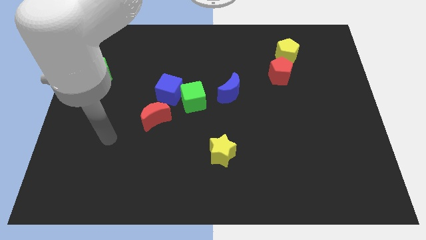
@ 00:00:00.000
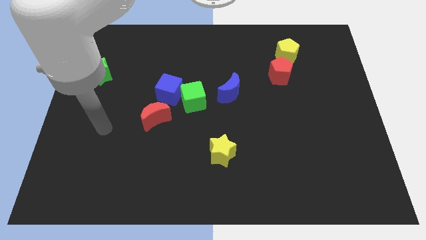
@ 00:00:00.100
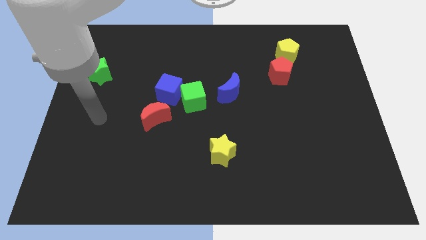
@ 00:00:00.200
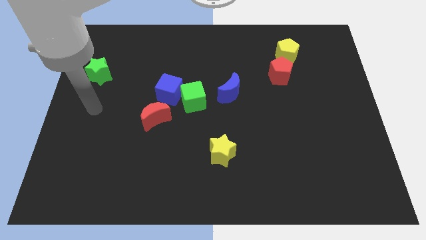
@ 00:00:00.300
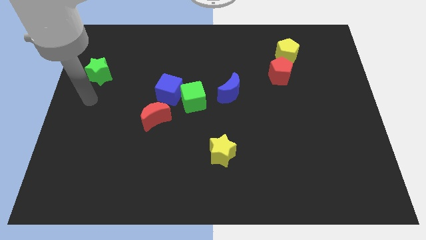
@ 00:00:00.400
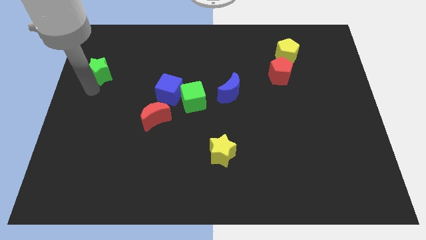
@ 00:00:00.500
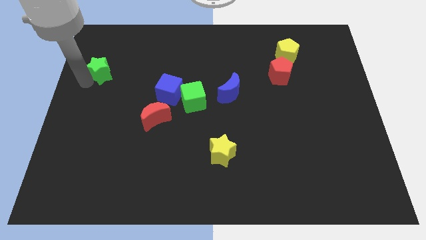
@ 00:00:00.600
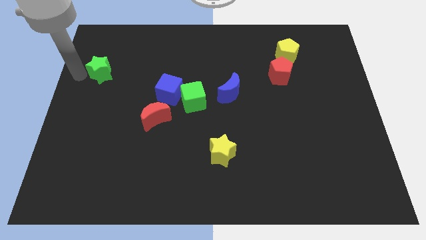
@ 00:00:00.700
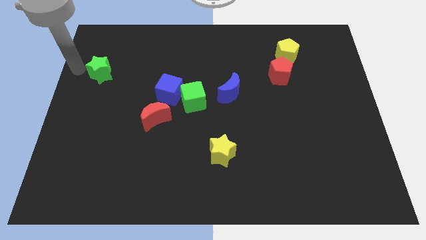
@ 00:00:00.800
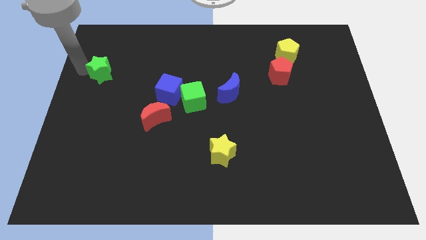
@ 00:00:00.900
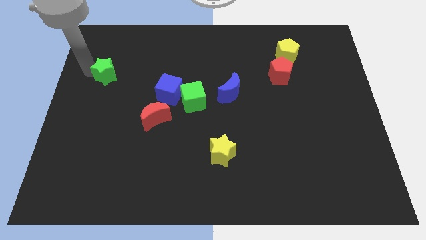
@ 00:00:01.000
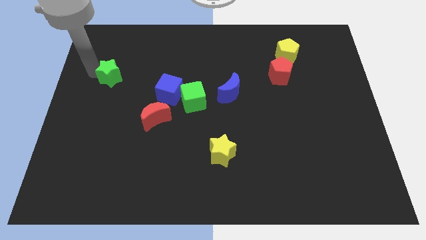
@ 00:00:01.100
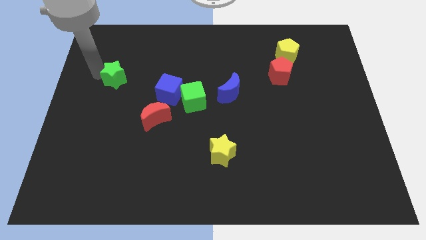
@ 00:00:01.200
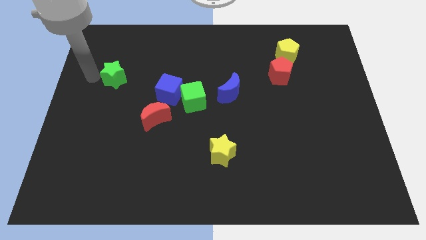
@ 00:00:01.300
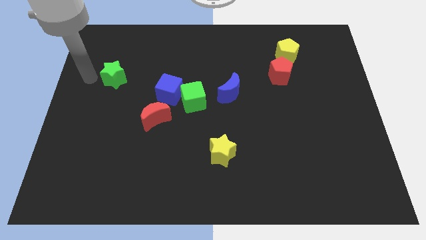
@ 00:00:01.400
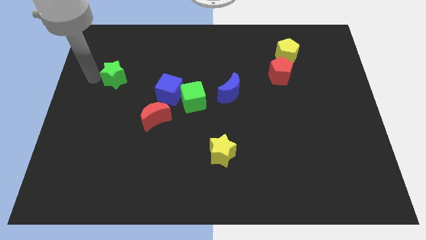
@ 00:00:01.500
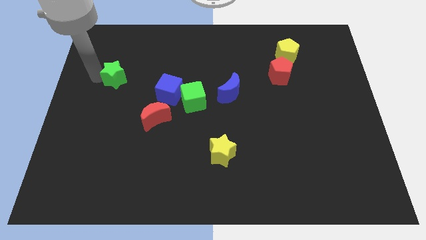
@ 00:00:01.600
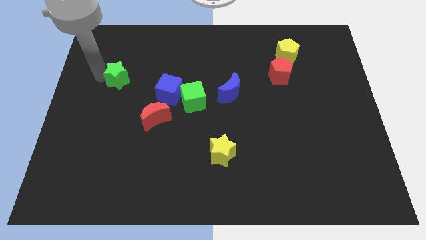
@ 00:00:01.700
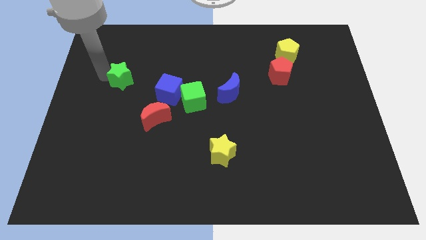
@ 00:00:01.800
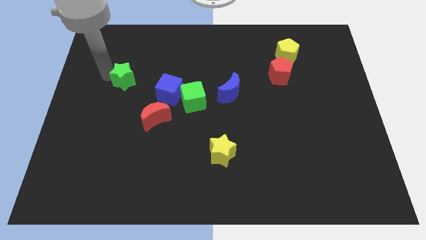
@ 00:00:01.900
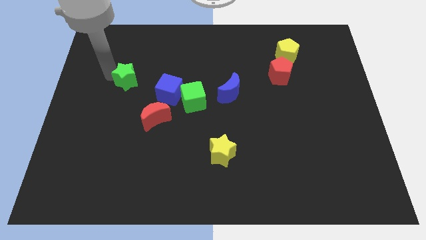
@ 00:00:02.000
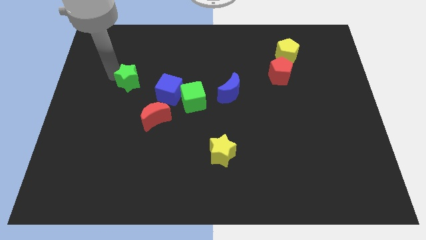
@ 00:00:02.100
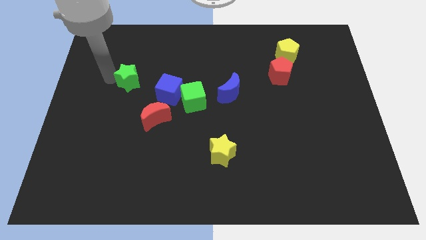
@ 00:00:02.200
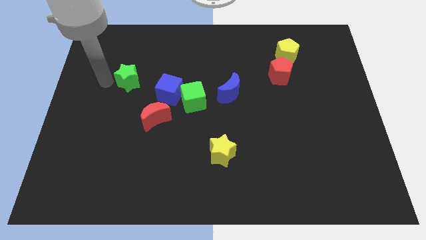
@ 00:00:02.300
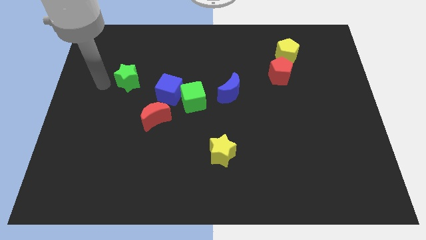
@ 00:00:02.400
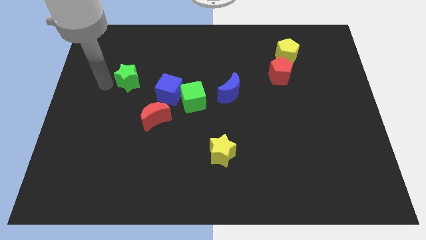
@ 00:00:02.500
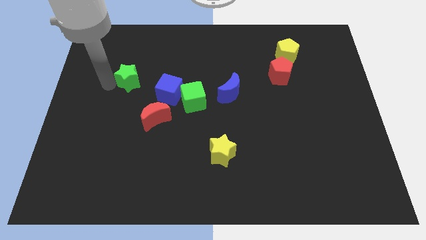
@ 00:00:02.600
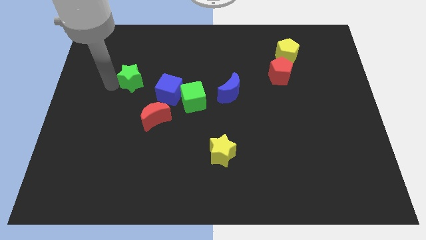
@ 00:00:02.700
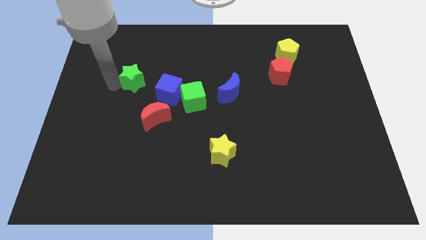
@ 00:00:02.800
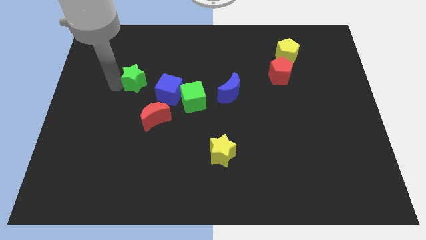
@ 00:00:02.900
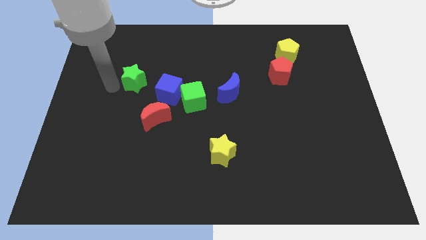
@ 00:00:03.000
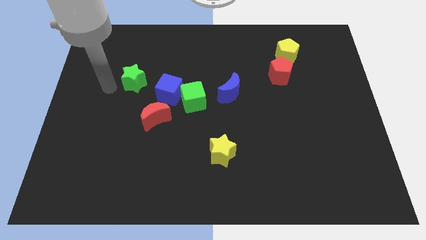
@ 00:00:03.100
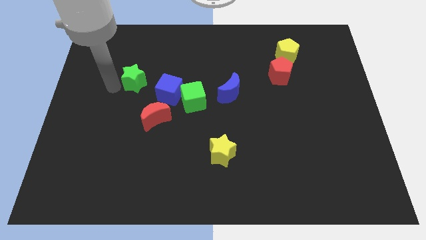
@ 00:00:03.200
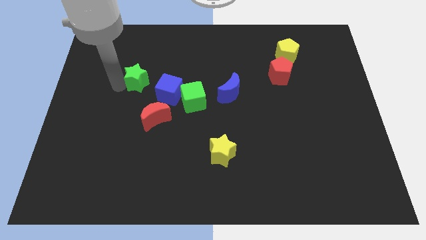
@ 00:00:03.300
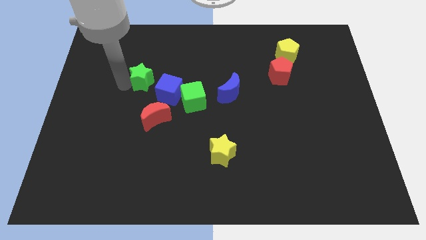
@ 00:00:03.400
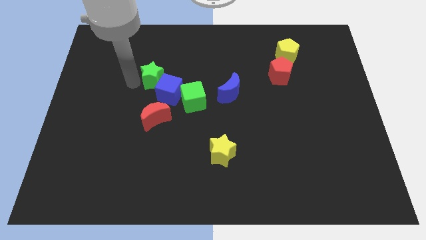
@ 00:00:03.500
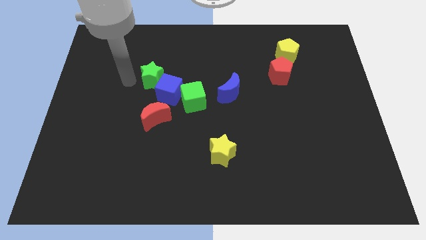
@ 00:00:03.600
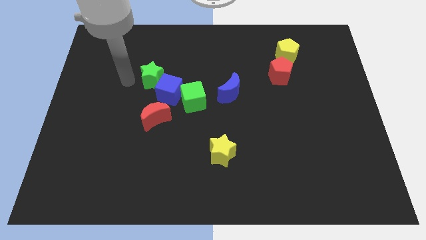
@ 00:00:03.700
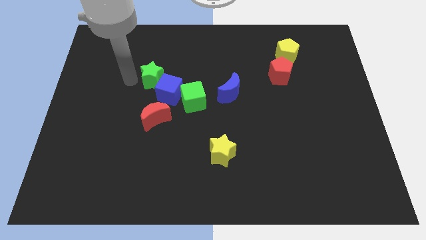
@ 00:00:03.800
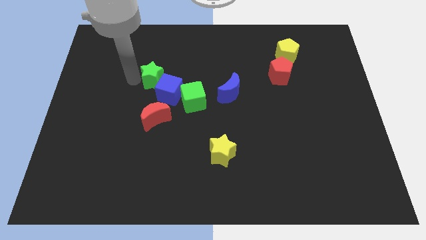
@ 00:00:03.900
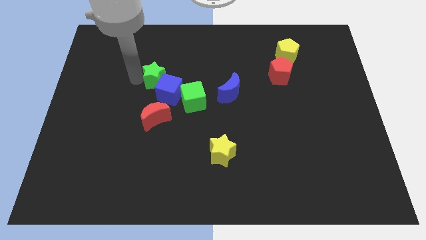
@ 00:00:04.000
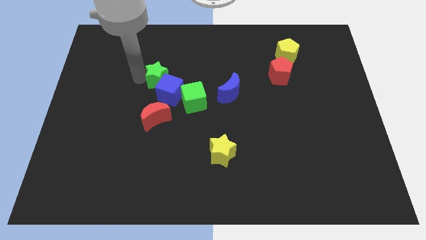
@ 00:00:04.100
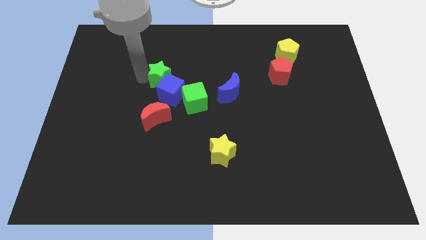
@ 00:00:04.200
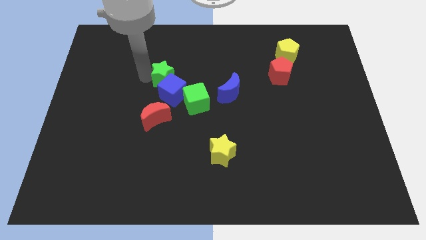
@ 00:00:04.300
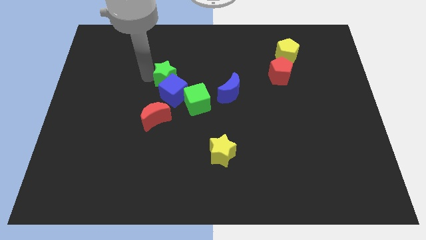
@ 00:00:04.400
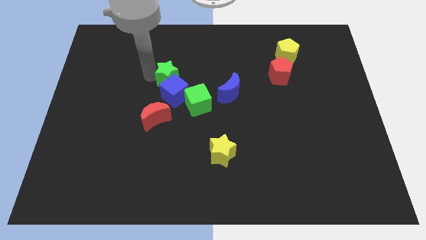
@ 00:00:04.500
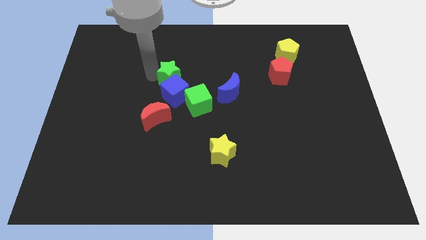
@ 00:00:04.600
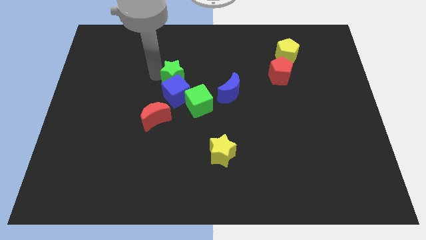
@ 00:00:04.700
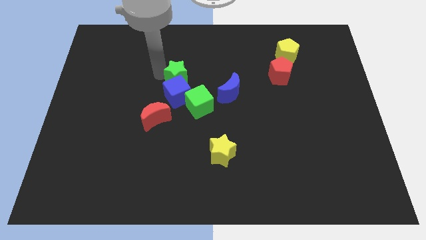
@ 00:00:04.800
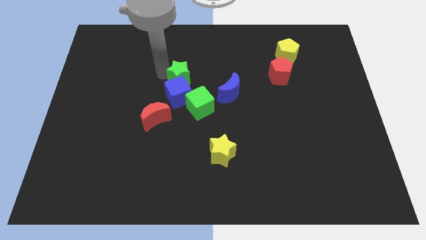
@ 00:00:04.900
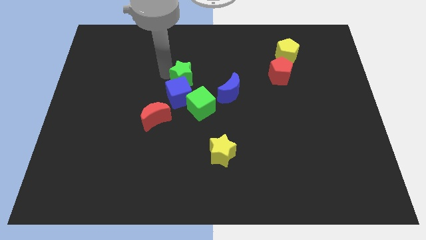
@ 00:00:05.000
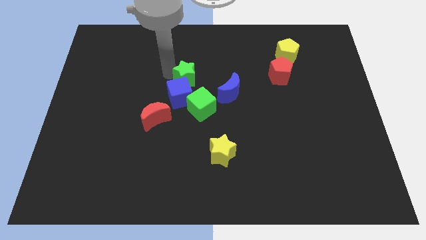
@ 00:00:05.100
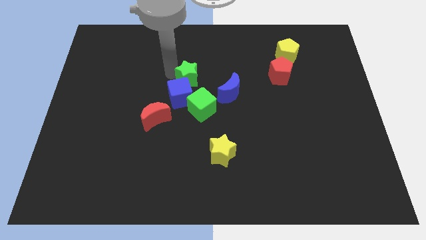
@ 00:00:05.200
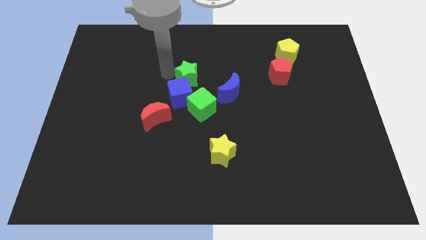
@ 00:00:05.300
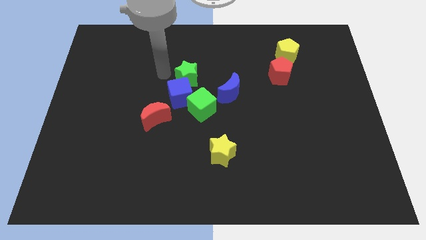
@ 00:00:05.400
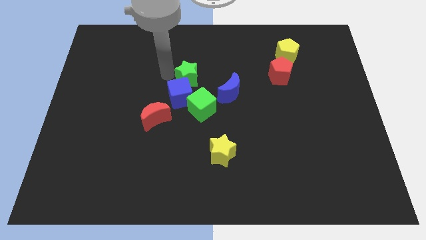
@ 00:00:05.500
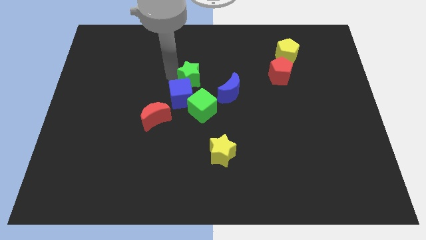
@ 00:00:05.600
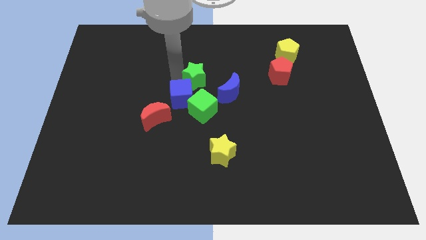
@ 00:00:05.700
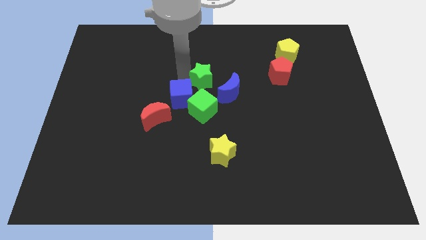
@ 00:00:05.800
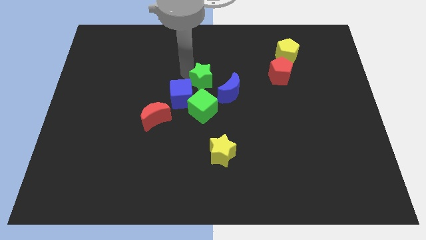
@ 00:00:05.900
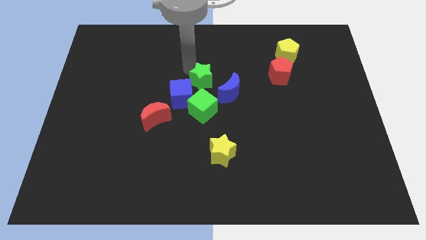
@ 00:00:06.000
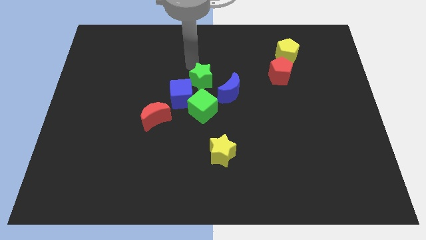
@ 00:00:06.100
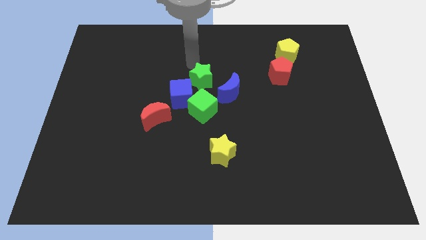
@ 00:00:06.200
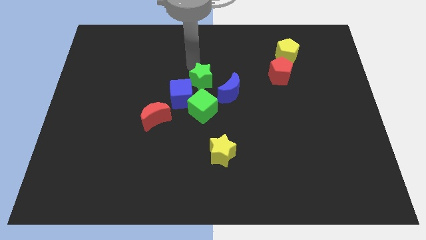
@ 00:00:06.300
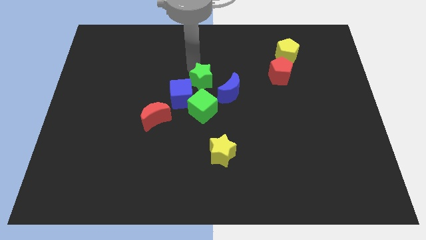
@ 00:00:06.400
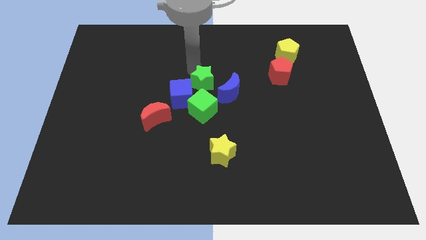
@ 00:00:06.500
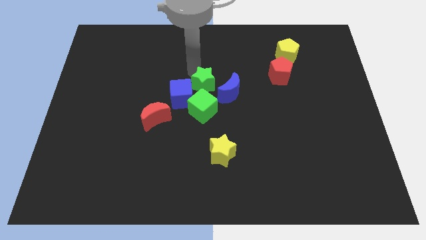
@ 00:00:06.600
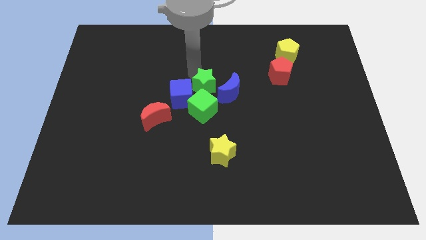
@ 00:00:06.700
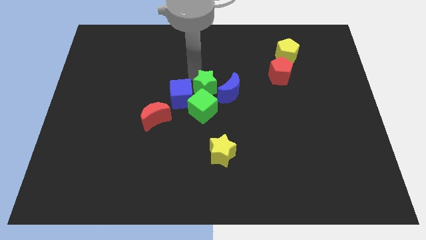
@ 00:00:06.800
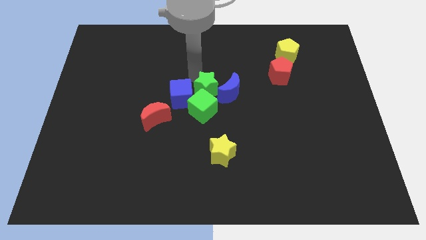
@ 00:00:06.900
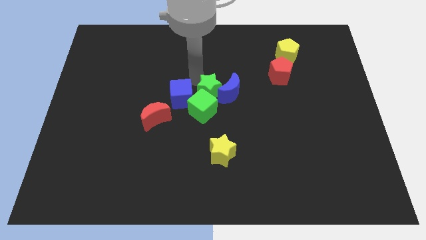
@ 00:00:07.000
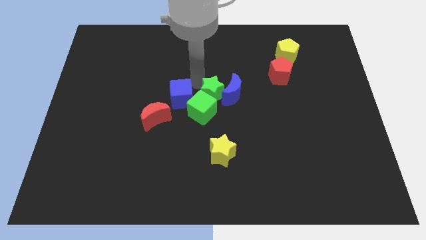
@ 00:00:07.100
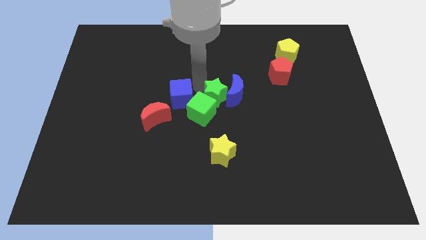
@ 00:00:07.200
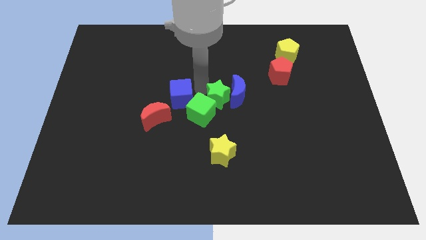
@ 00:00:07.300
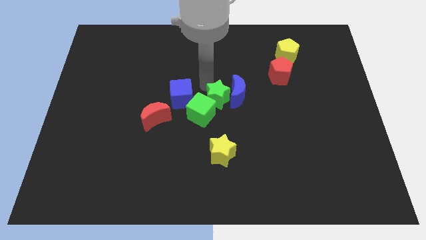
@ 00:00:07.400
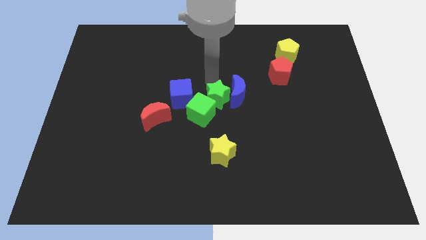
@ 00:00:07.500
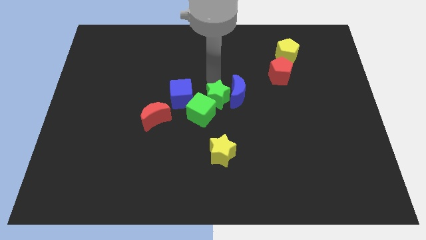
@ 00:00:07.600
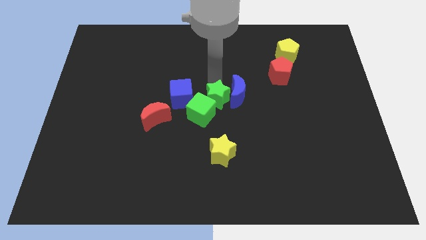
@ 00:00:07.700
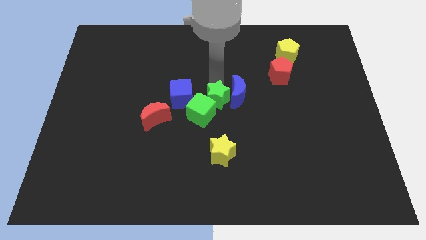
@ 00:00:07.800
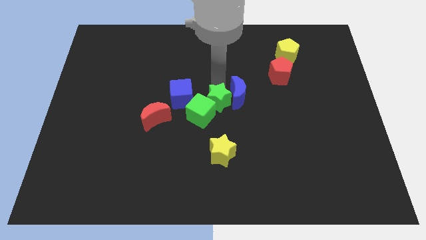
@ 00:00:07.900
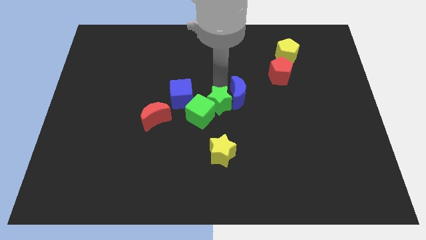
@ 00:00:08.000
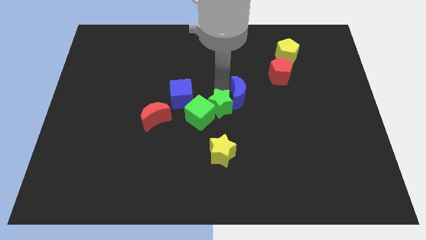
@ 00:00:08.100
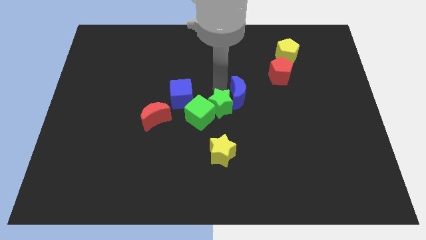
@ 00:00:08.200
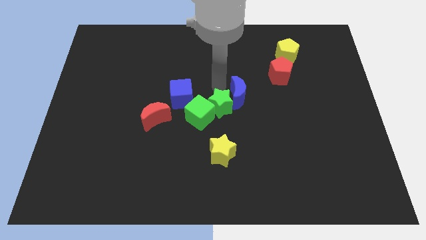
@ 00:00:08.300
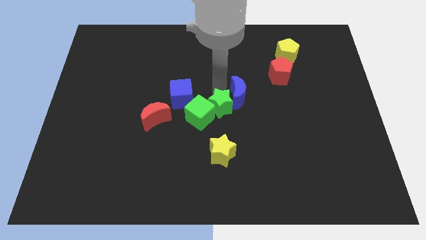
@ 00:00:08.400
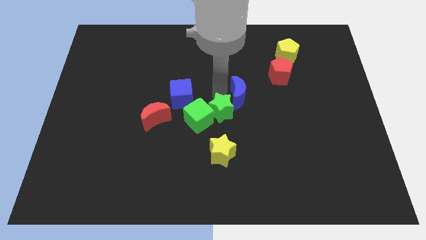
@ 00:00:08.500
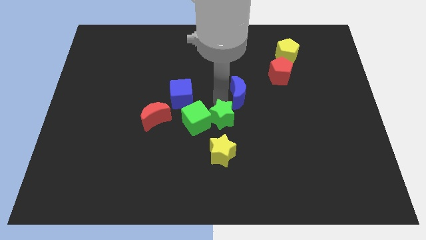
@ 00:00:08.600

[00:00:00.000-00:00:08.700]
push the green star diagonally down and to the right of the green cube
